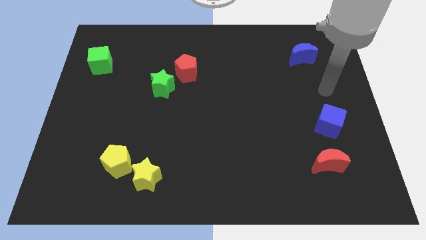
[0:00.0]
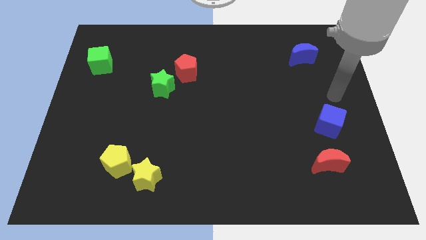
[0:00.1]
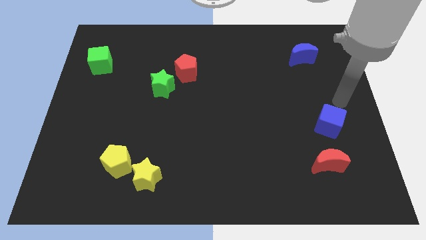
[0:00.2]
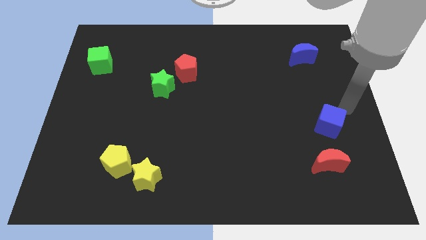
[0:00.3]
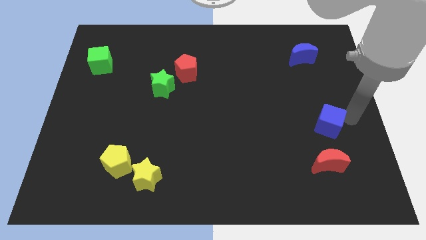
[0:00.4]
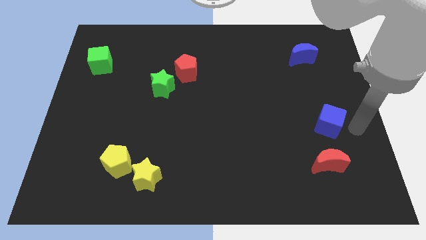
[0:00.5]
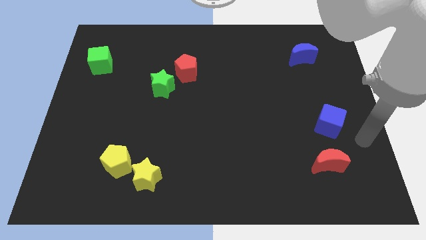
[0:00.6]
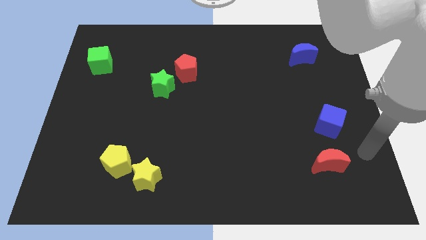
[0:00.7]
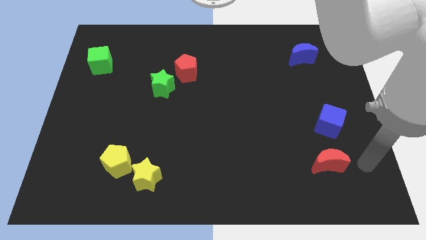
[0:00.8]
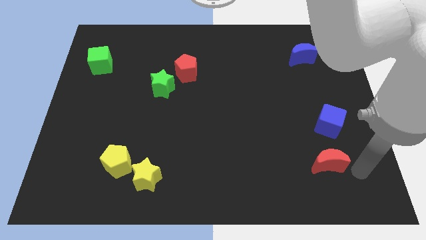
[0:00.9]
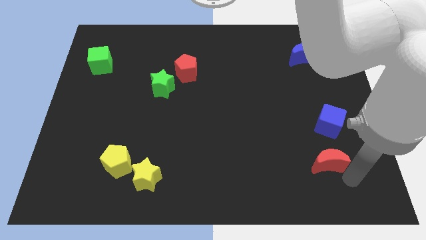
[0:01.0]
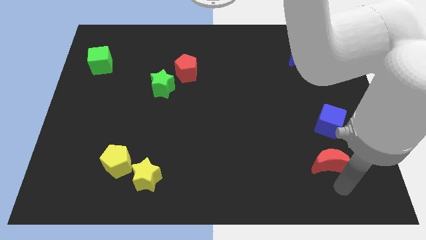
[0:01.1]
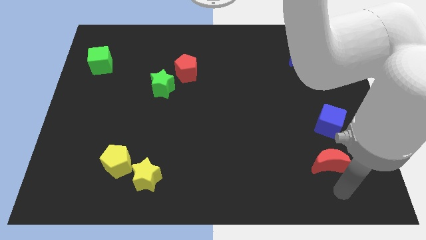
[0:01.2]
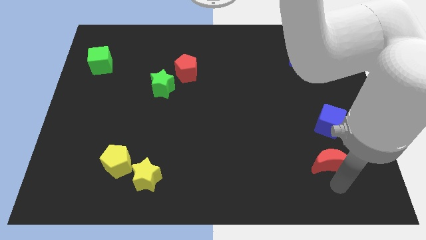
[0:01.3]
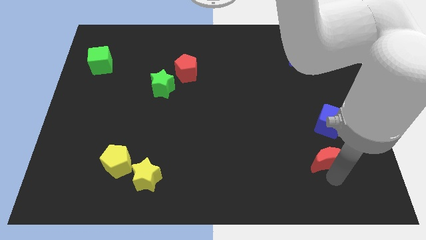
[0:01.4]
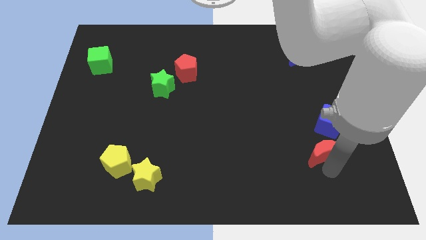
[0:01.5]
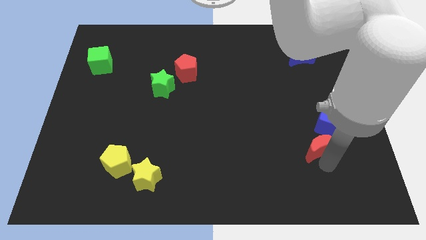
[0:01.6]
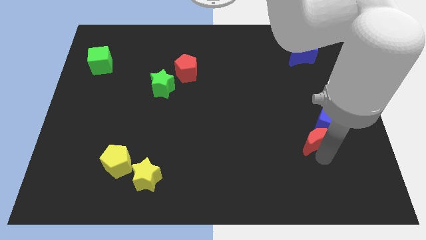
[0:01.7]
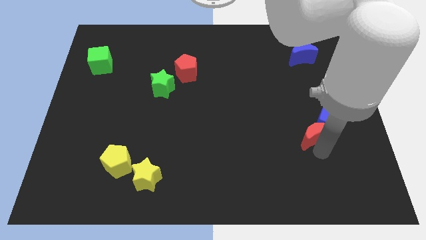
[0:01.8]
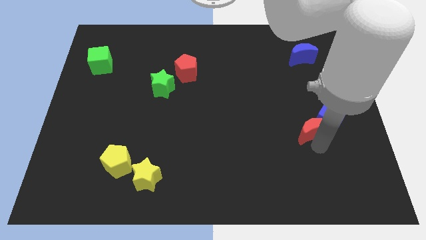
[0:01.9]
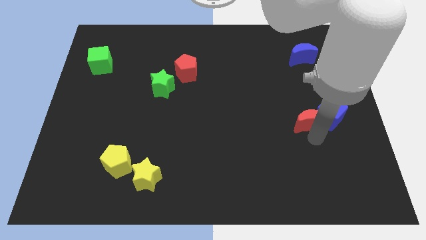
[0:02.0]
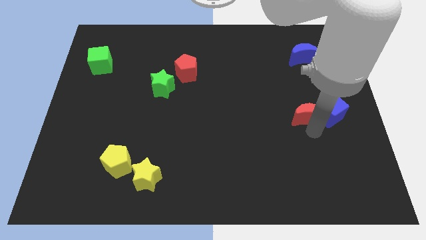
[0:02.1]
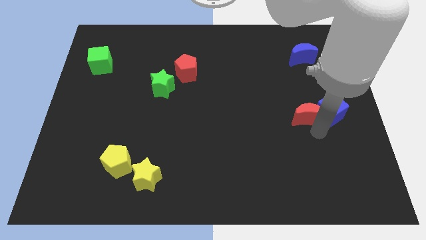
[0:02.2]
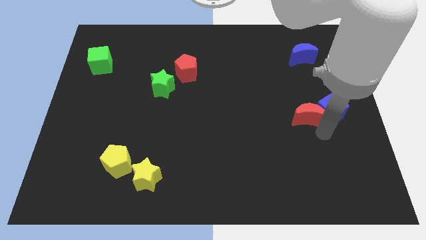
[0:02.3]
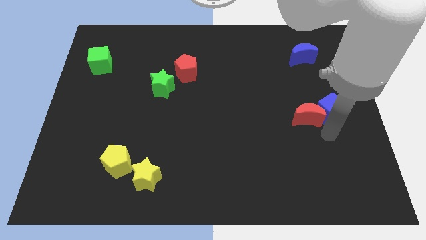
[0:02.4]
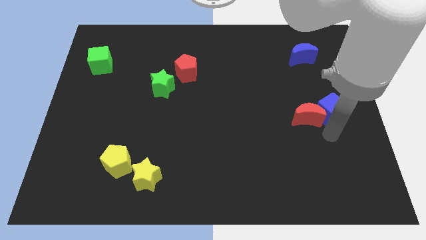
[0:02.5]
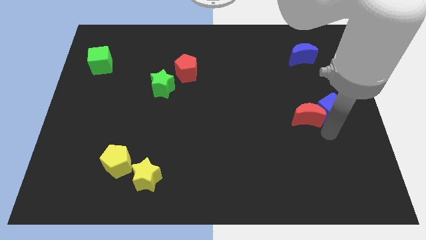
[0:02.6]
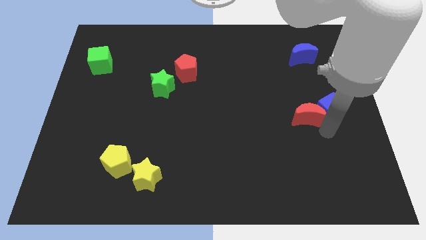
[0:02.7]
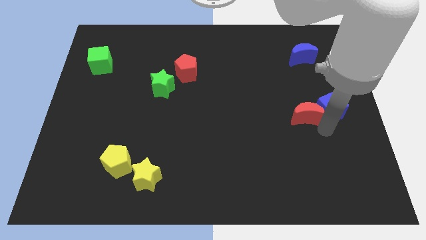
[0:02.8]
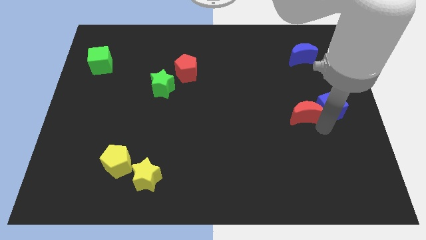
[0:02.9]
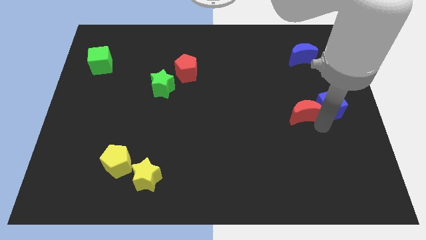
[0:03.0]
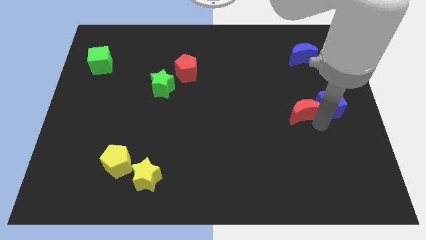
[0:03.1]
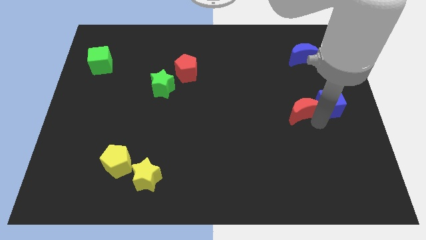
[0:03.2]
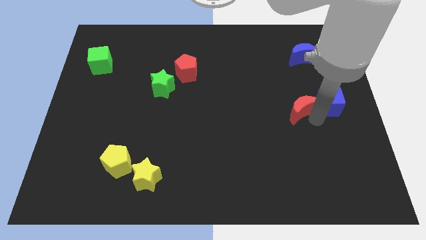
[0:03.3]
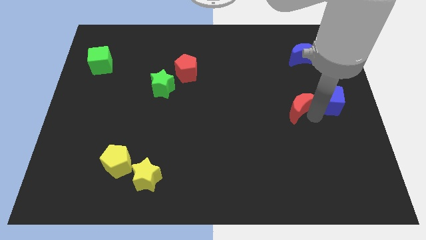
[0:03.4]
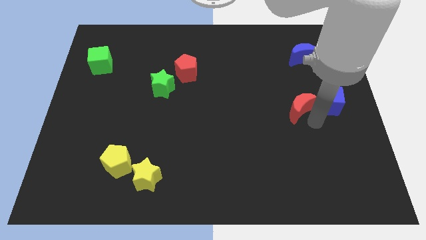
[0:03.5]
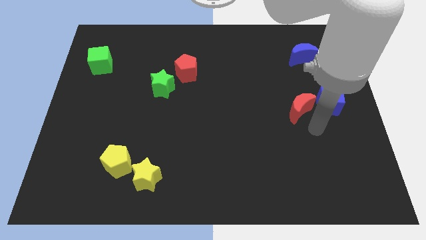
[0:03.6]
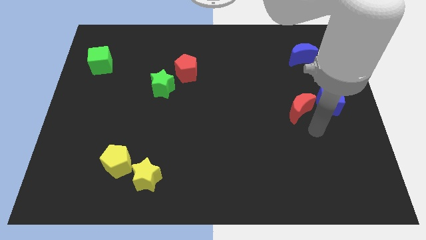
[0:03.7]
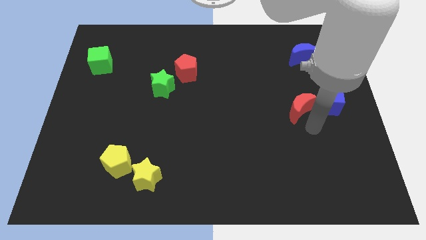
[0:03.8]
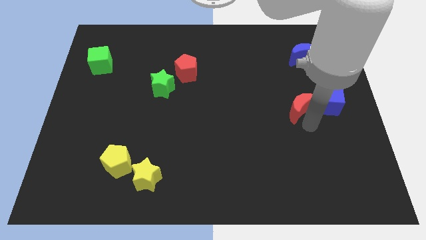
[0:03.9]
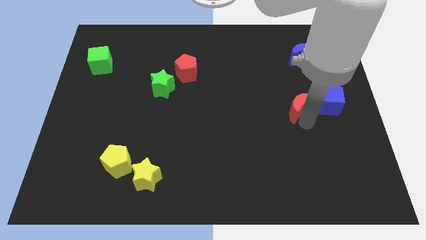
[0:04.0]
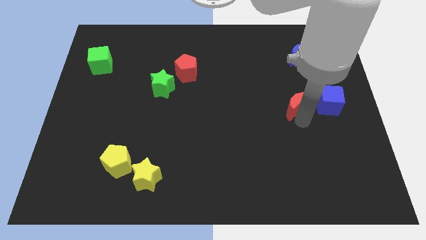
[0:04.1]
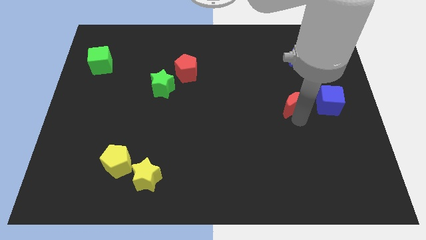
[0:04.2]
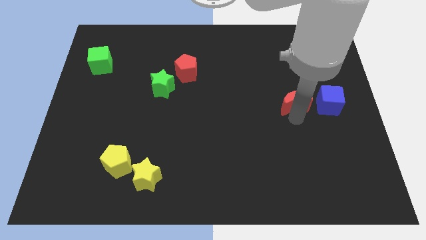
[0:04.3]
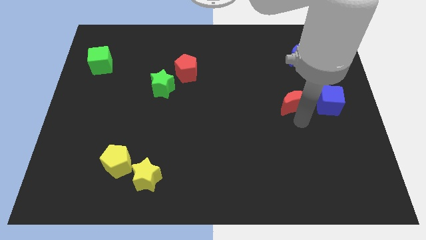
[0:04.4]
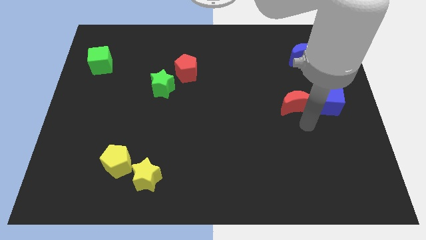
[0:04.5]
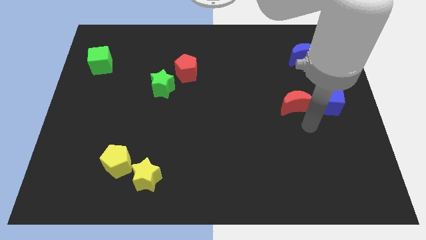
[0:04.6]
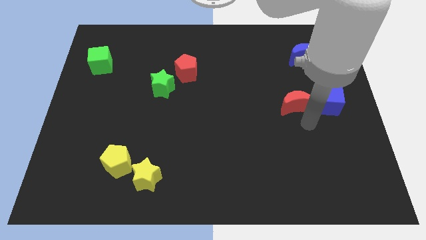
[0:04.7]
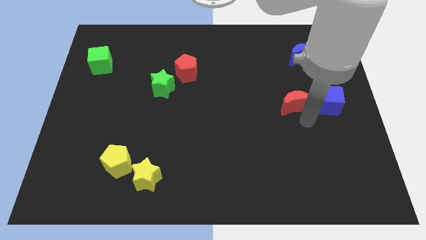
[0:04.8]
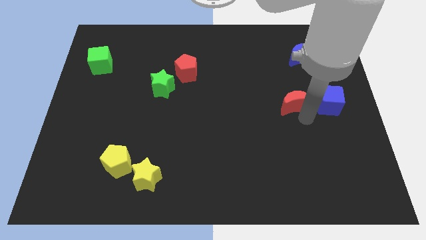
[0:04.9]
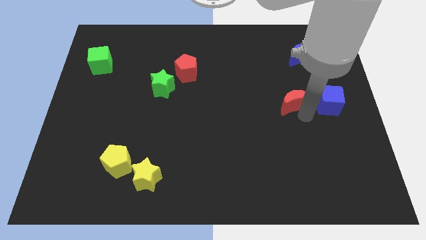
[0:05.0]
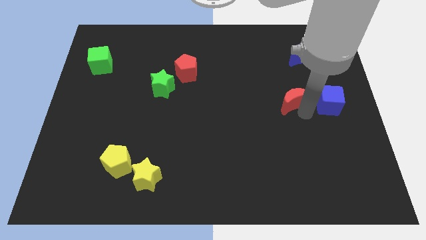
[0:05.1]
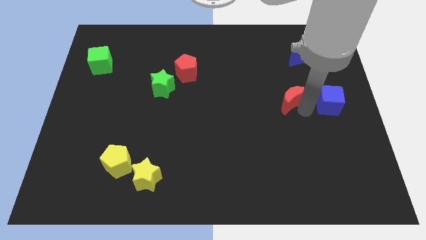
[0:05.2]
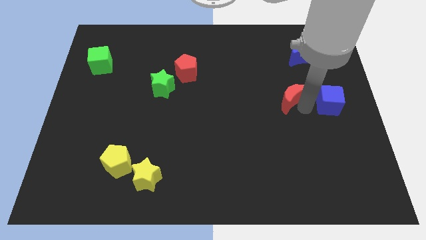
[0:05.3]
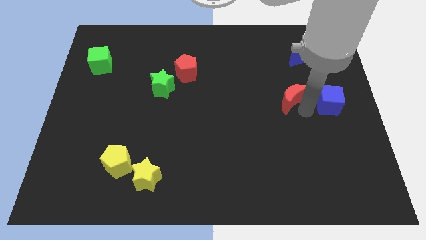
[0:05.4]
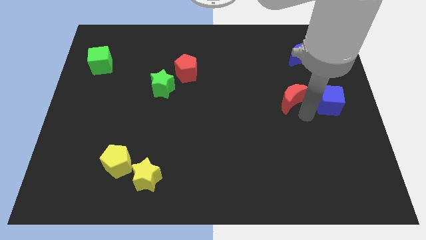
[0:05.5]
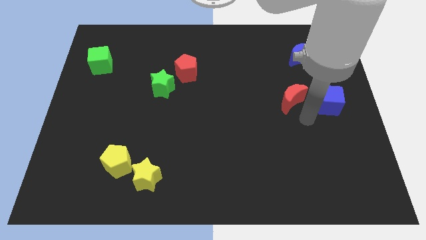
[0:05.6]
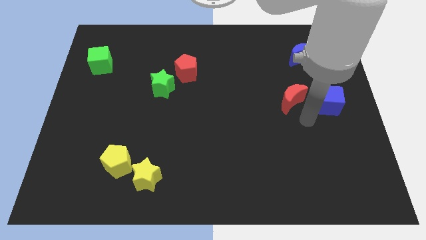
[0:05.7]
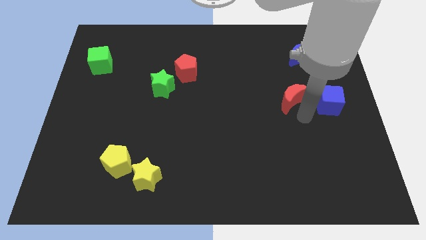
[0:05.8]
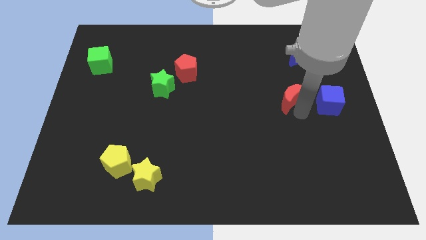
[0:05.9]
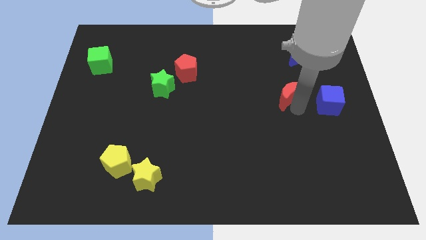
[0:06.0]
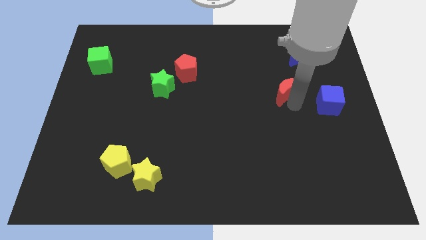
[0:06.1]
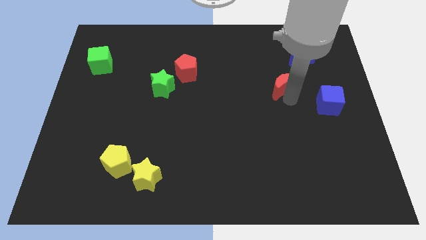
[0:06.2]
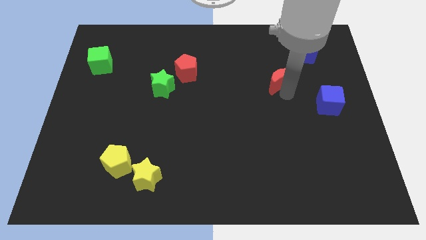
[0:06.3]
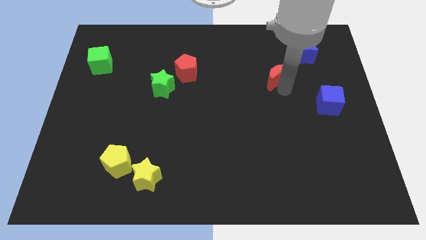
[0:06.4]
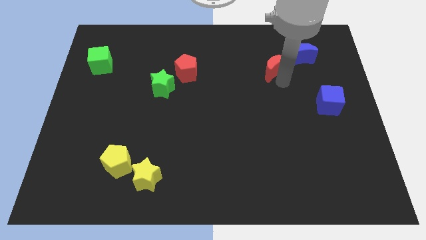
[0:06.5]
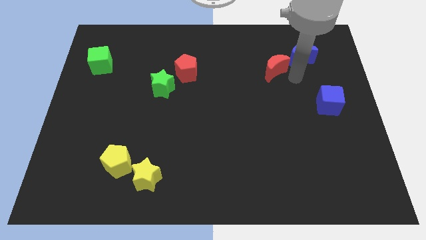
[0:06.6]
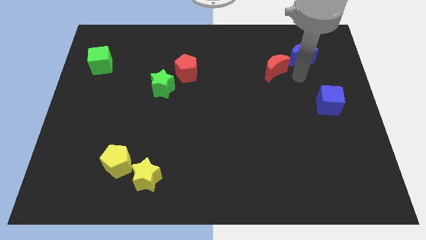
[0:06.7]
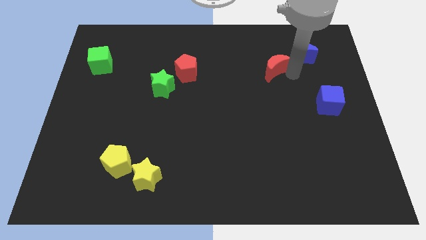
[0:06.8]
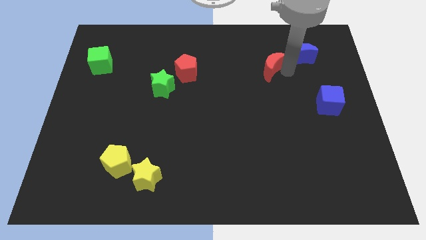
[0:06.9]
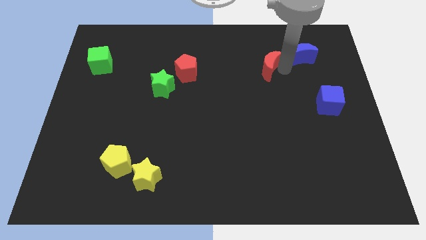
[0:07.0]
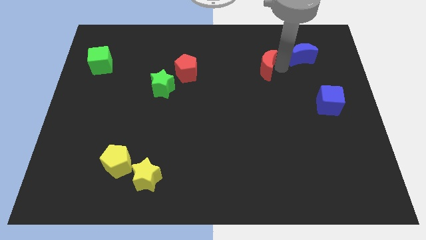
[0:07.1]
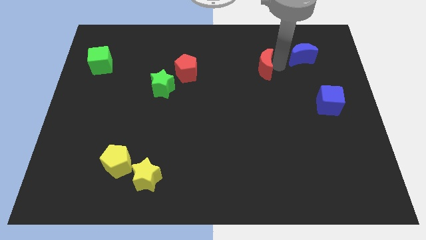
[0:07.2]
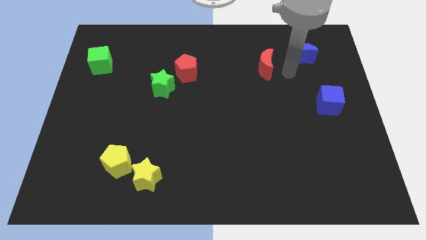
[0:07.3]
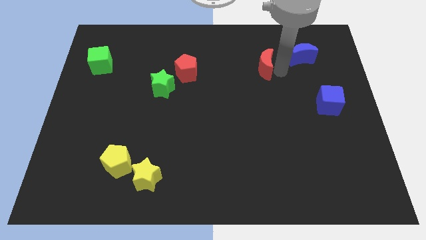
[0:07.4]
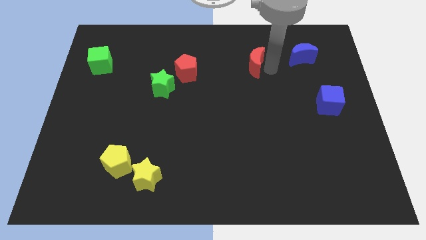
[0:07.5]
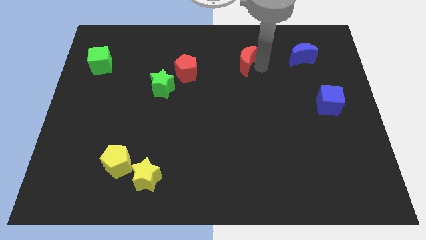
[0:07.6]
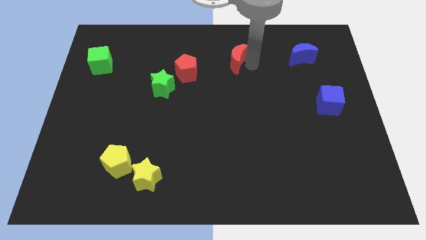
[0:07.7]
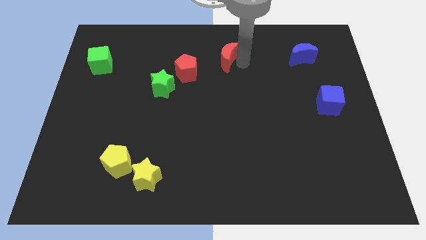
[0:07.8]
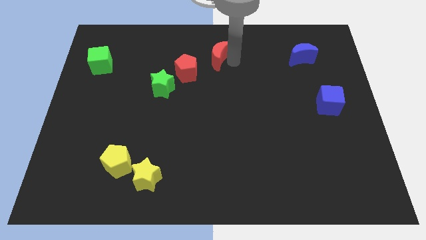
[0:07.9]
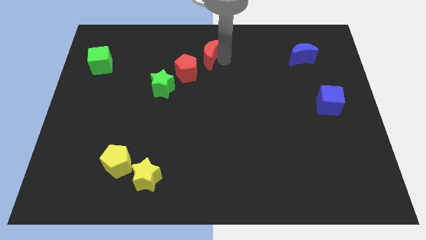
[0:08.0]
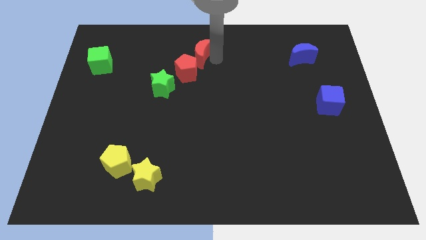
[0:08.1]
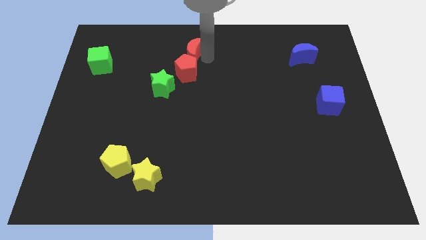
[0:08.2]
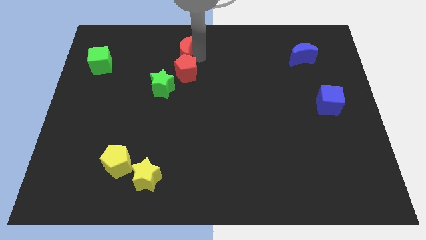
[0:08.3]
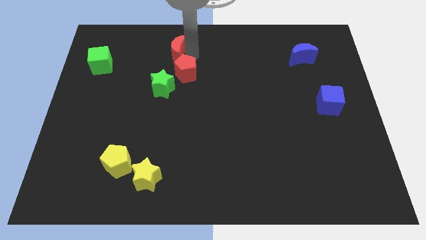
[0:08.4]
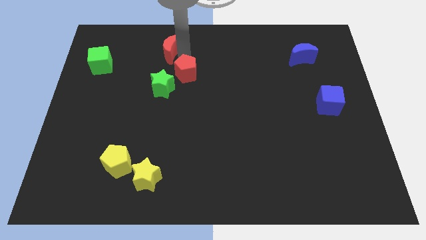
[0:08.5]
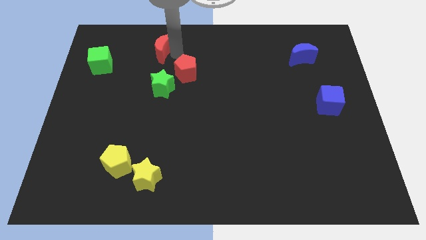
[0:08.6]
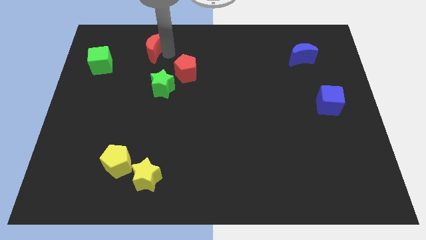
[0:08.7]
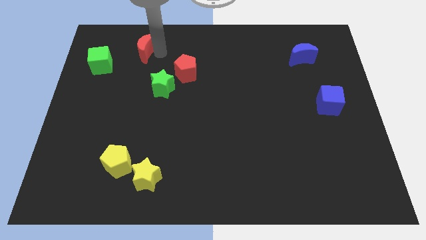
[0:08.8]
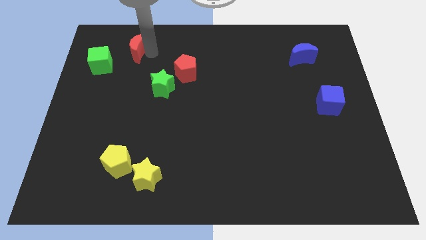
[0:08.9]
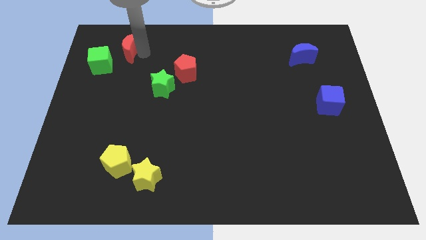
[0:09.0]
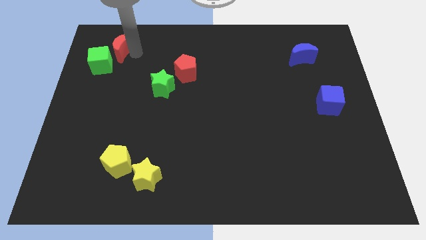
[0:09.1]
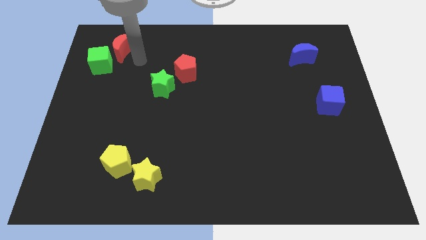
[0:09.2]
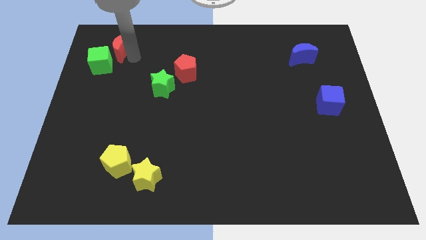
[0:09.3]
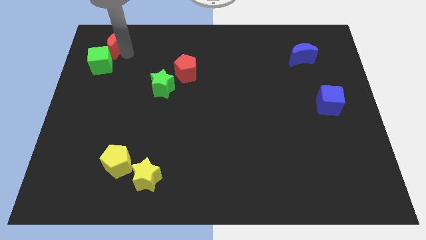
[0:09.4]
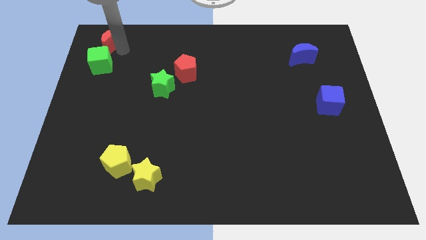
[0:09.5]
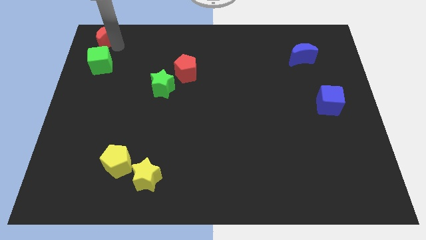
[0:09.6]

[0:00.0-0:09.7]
slide the red moon to the upper left corner
